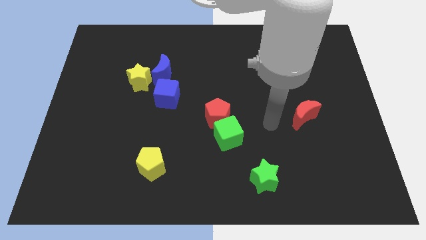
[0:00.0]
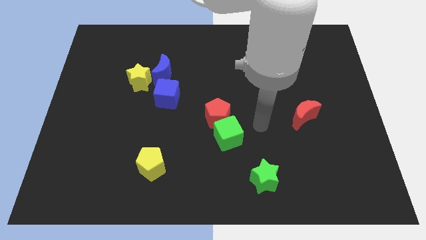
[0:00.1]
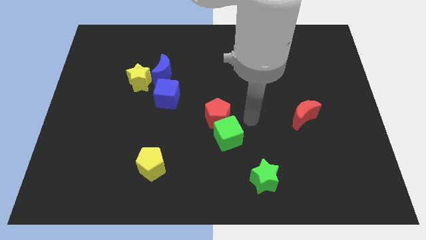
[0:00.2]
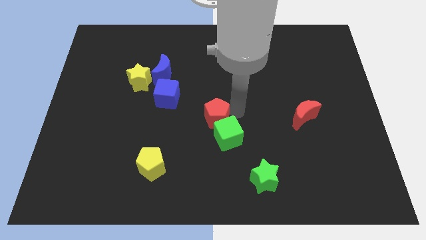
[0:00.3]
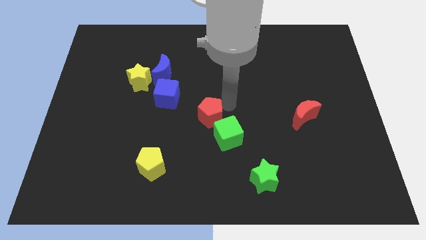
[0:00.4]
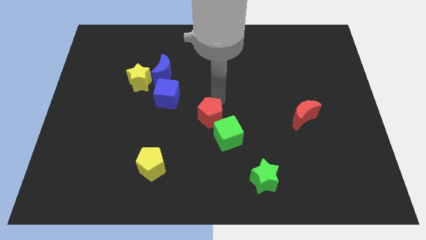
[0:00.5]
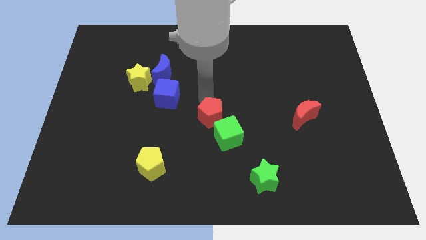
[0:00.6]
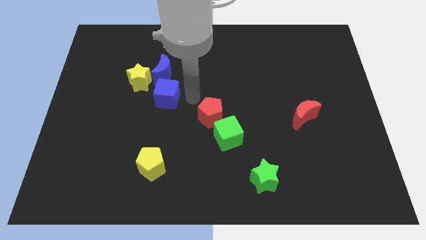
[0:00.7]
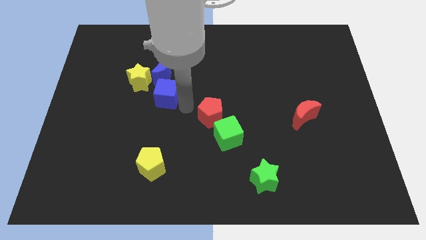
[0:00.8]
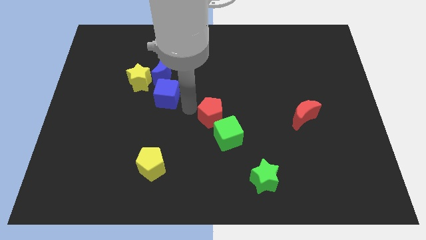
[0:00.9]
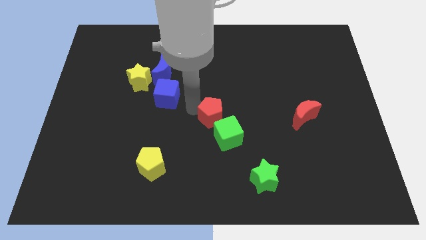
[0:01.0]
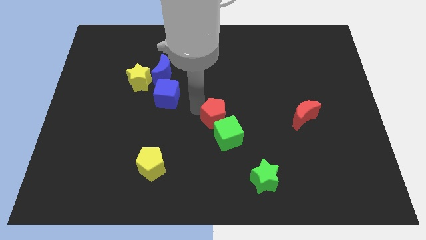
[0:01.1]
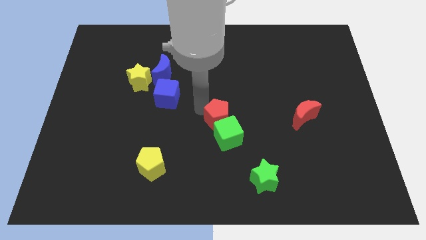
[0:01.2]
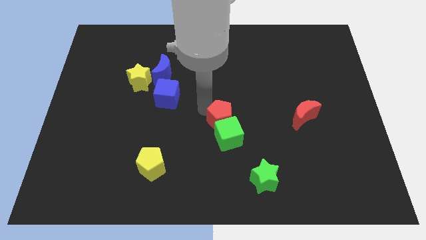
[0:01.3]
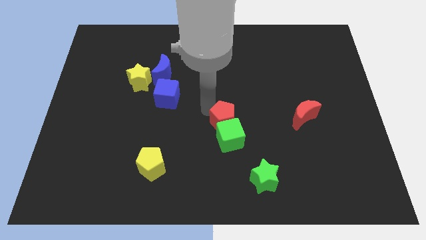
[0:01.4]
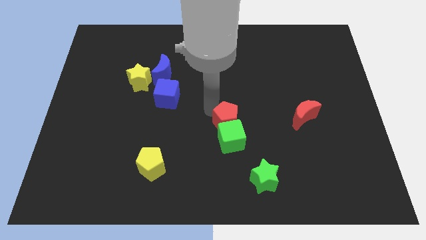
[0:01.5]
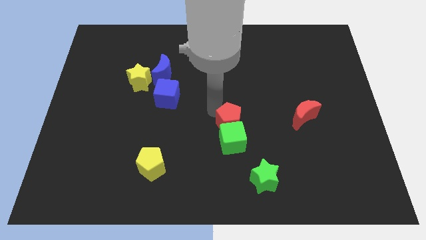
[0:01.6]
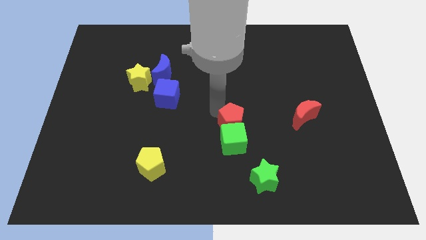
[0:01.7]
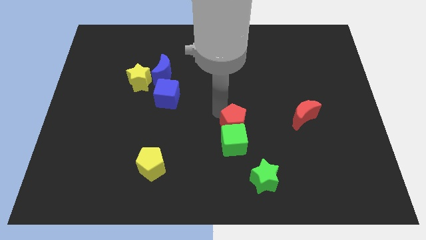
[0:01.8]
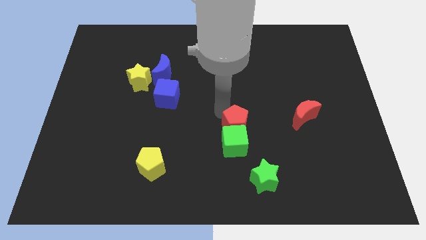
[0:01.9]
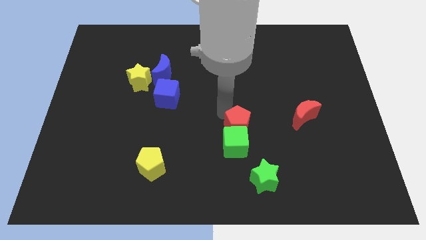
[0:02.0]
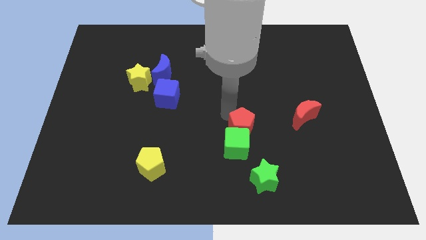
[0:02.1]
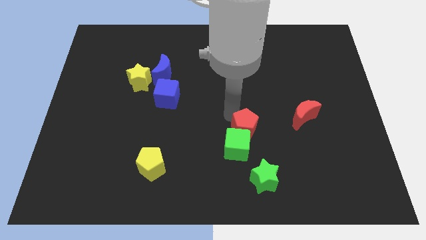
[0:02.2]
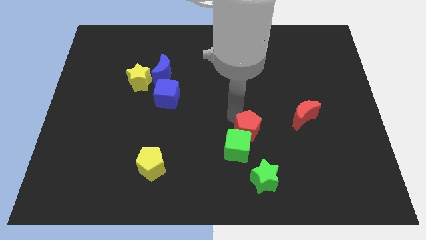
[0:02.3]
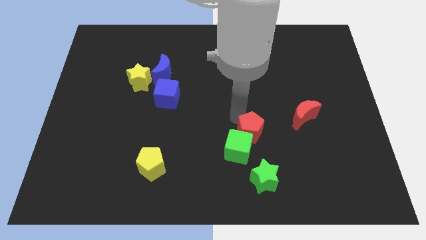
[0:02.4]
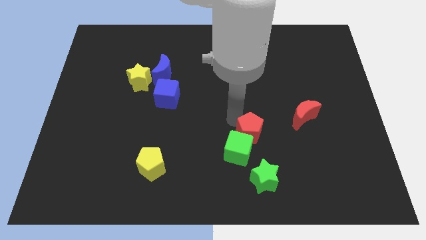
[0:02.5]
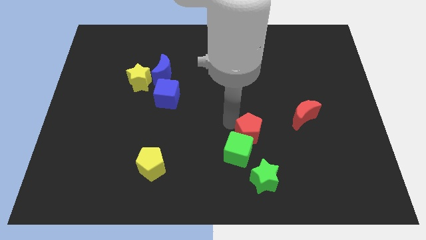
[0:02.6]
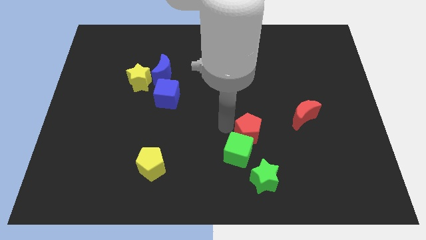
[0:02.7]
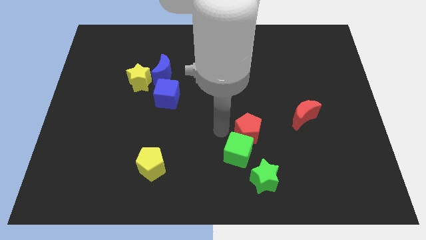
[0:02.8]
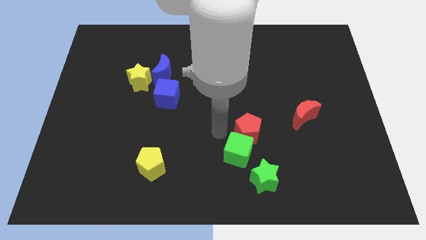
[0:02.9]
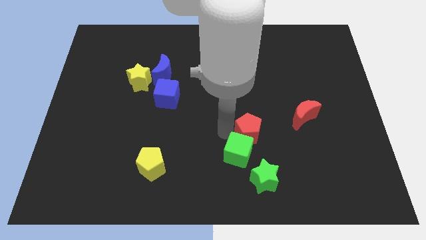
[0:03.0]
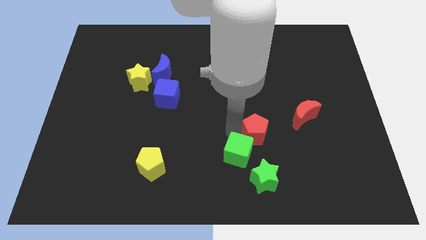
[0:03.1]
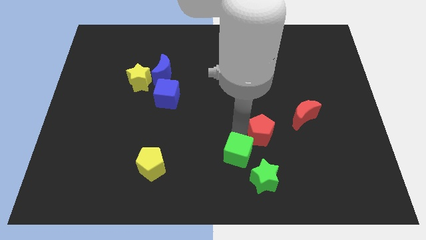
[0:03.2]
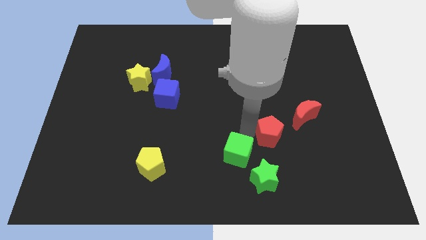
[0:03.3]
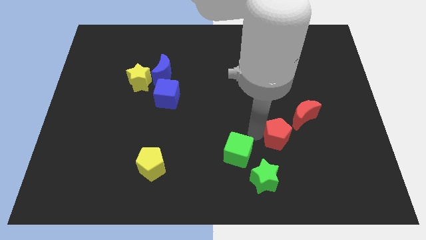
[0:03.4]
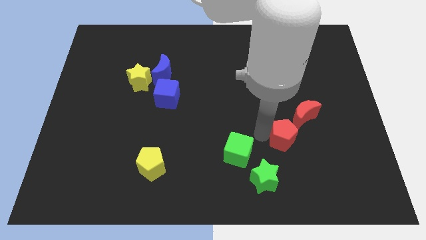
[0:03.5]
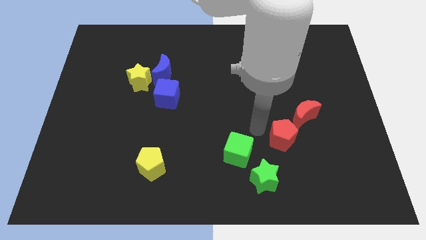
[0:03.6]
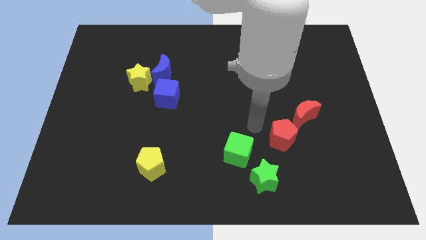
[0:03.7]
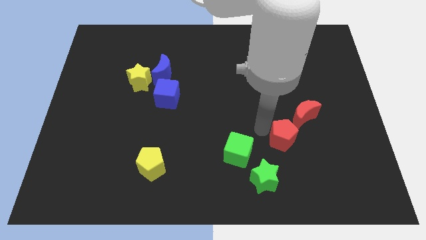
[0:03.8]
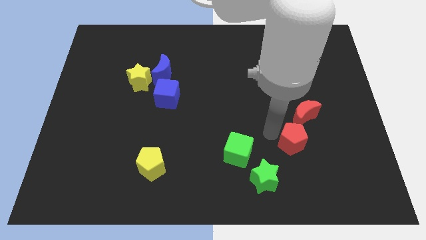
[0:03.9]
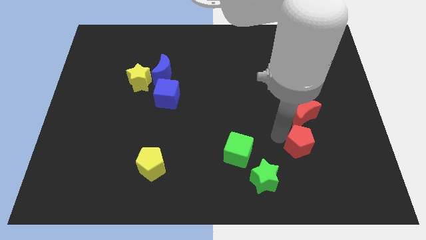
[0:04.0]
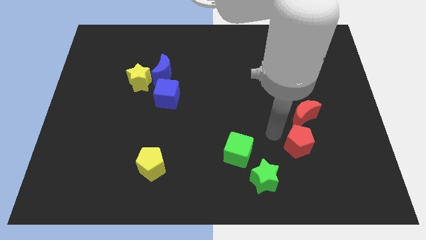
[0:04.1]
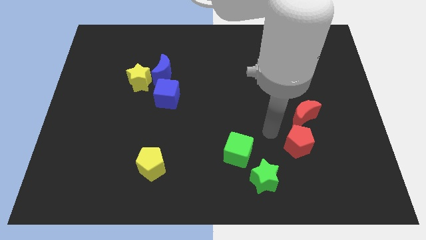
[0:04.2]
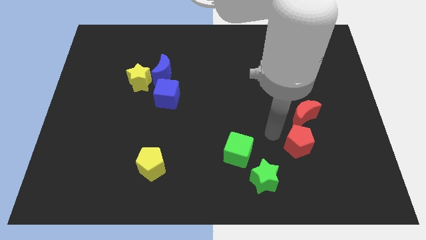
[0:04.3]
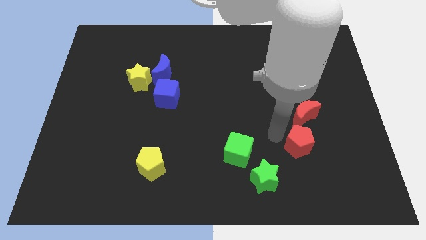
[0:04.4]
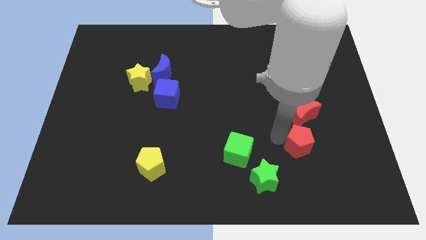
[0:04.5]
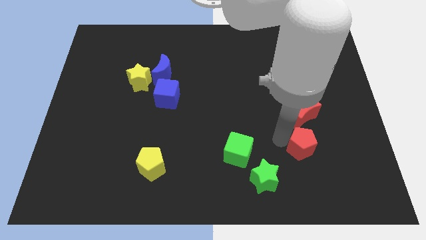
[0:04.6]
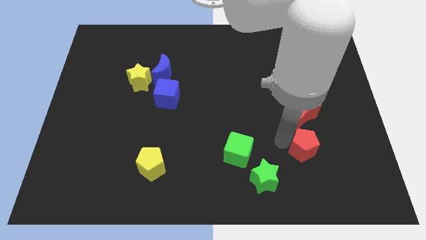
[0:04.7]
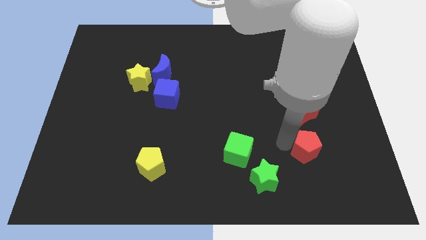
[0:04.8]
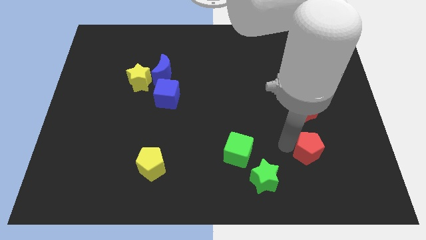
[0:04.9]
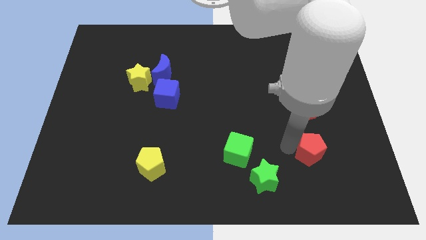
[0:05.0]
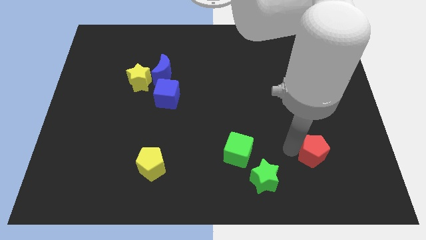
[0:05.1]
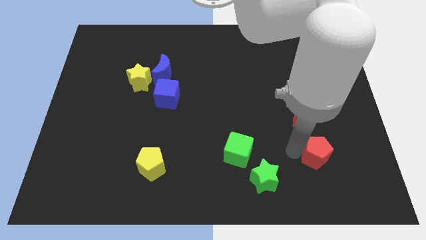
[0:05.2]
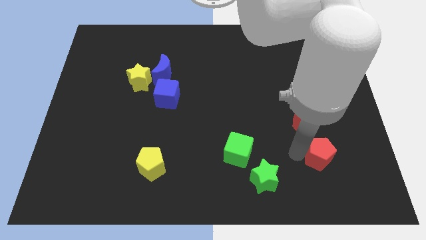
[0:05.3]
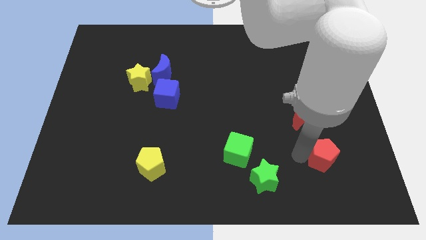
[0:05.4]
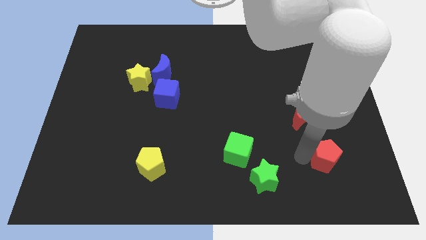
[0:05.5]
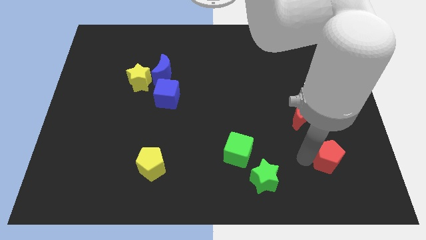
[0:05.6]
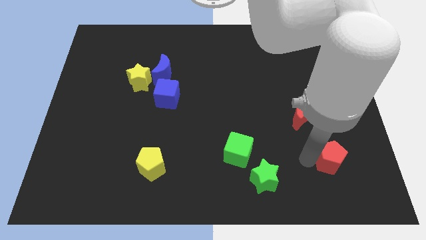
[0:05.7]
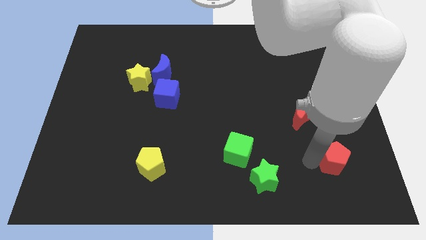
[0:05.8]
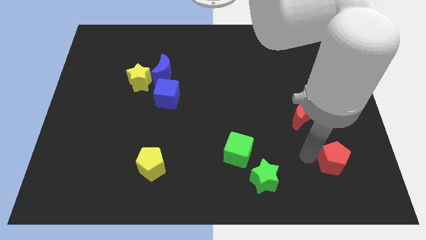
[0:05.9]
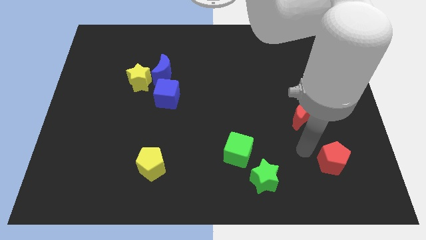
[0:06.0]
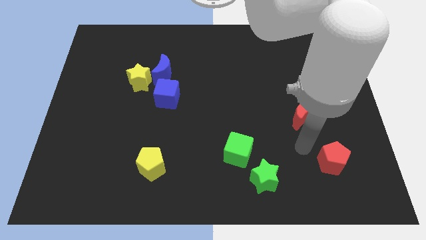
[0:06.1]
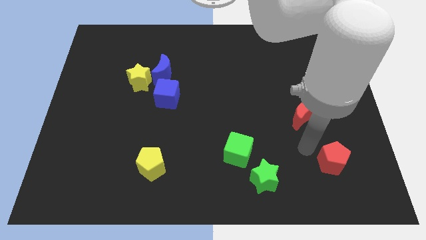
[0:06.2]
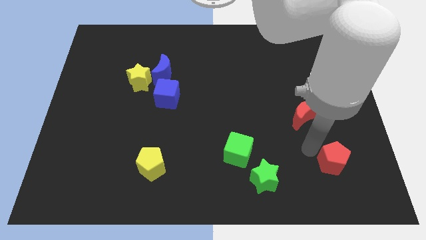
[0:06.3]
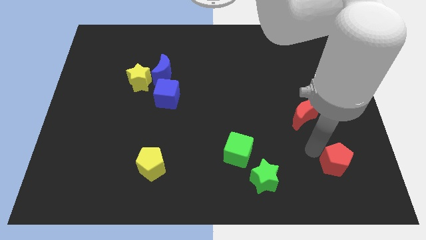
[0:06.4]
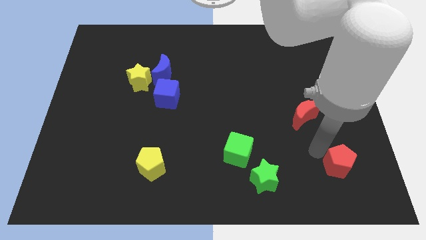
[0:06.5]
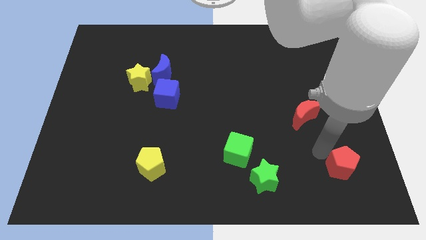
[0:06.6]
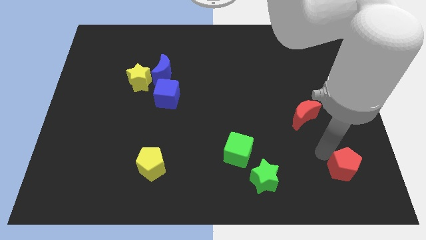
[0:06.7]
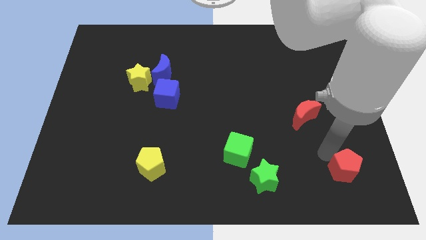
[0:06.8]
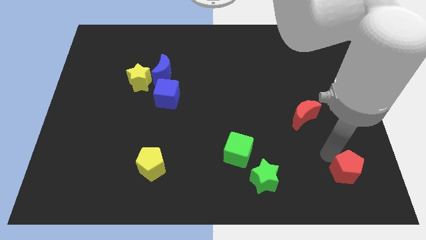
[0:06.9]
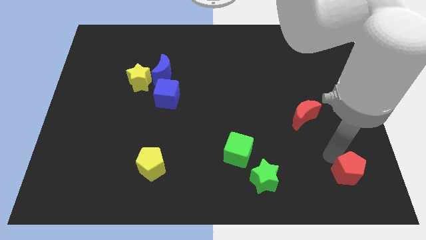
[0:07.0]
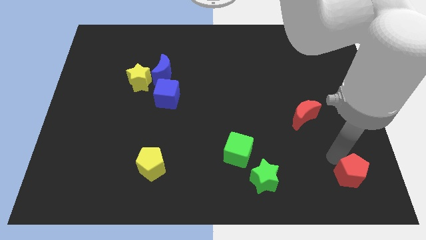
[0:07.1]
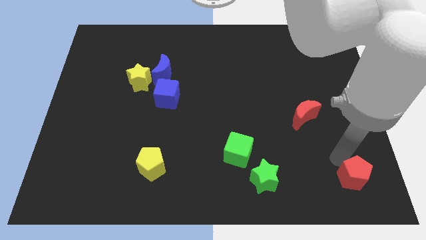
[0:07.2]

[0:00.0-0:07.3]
move the red pentagon to the bottom right corner
